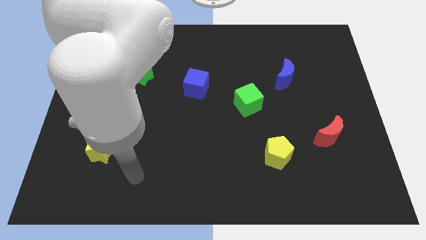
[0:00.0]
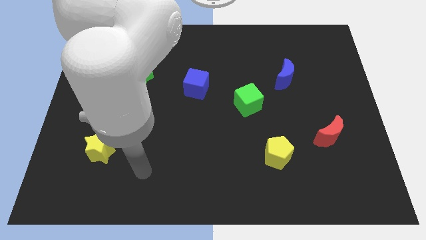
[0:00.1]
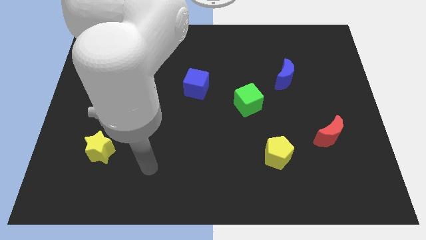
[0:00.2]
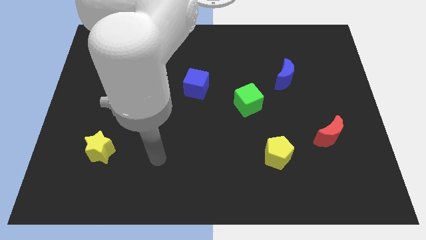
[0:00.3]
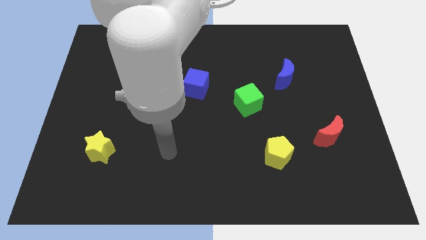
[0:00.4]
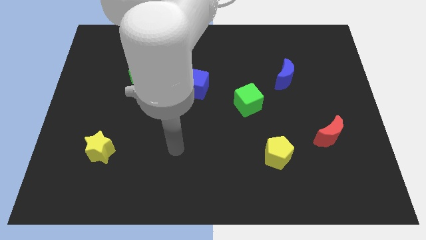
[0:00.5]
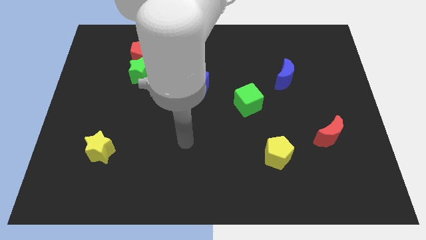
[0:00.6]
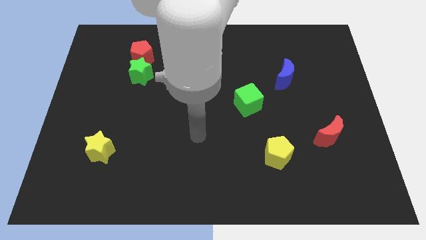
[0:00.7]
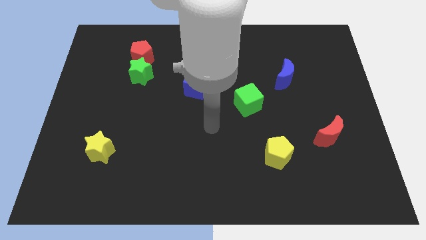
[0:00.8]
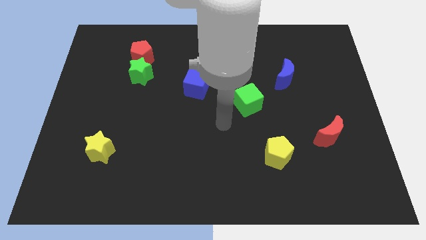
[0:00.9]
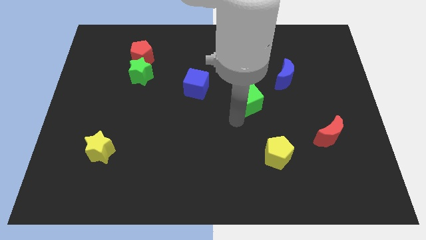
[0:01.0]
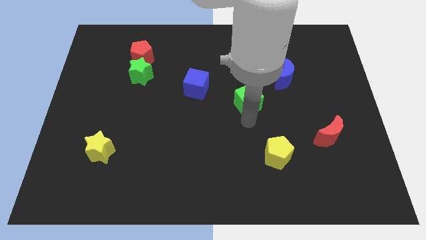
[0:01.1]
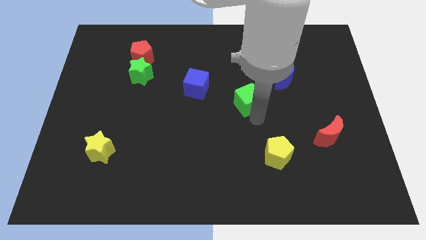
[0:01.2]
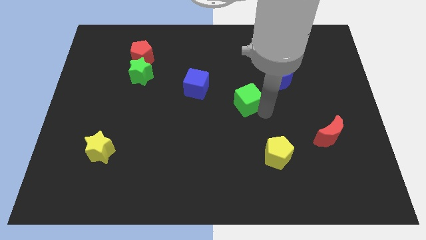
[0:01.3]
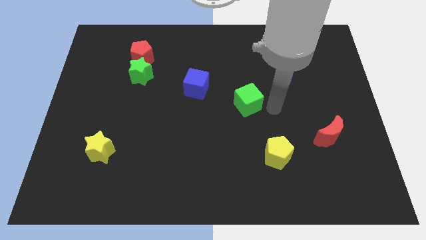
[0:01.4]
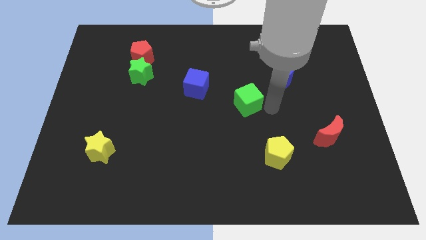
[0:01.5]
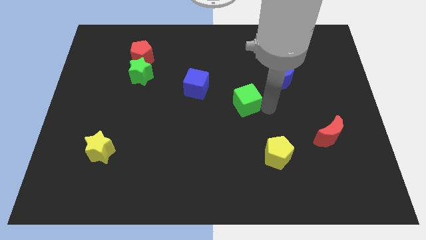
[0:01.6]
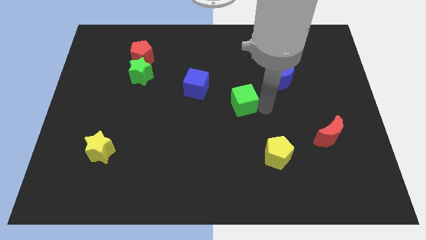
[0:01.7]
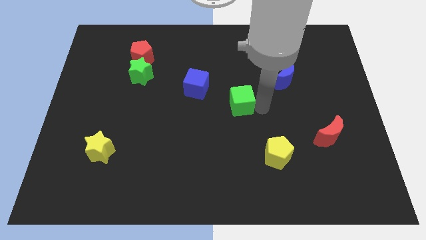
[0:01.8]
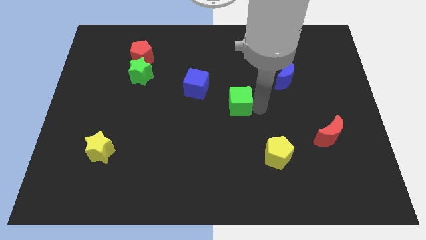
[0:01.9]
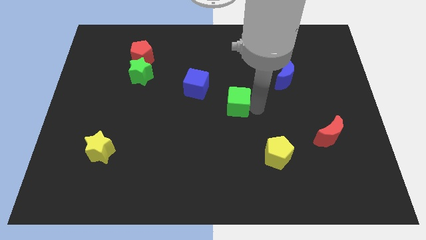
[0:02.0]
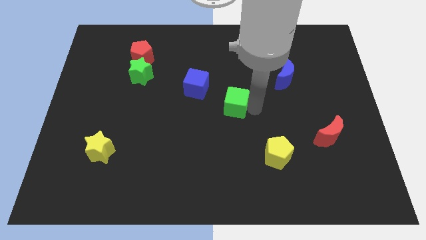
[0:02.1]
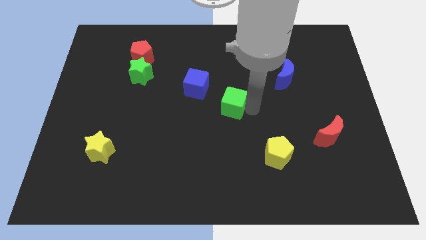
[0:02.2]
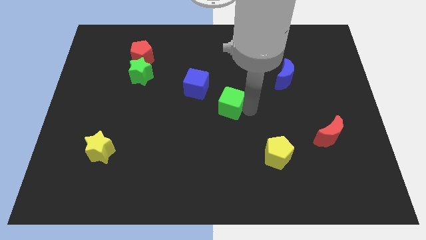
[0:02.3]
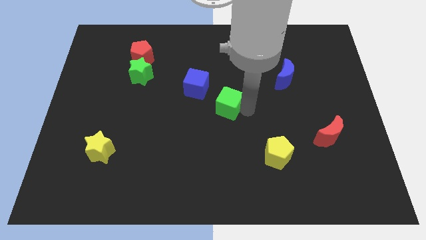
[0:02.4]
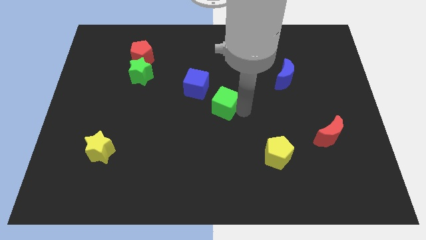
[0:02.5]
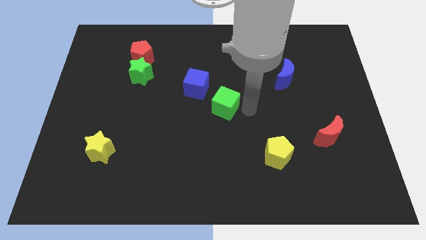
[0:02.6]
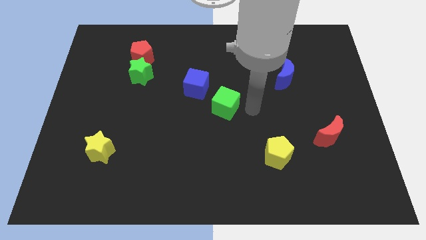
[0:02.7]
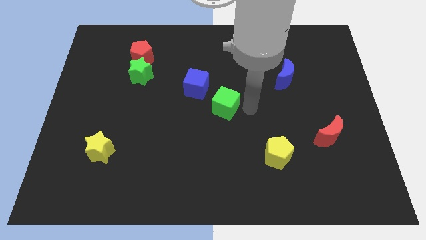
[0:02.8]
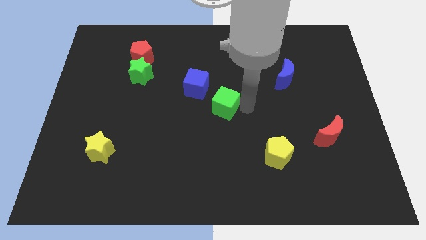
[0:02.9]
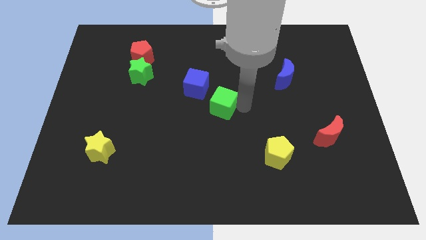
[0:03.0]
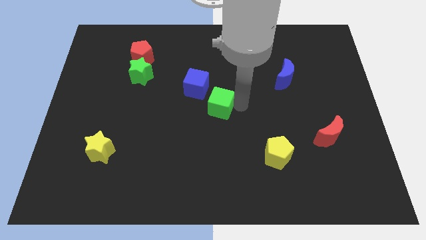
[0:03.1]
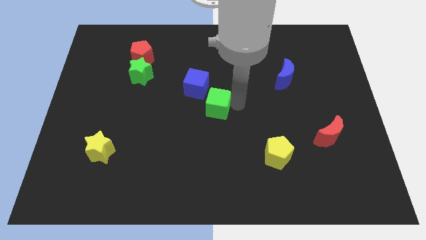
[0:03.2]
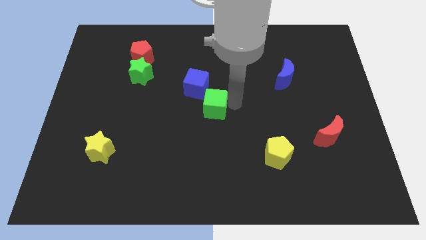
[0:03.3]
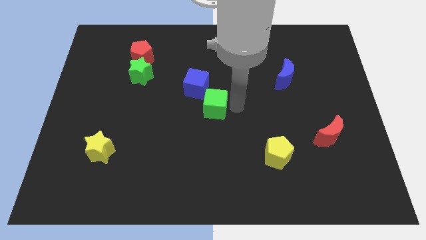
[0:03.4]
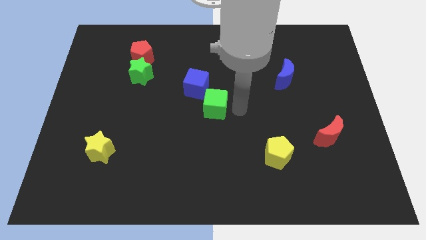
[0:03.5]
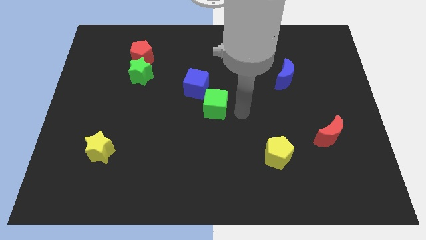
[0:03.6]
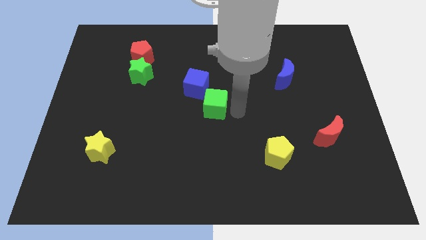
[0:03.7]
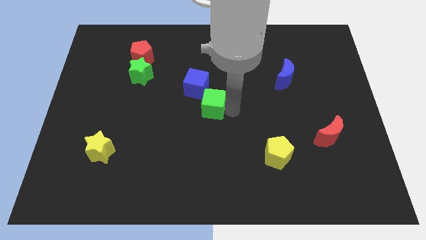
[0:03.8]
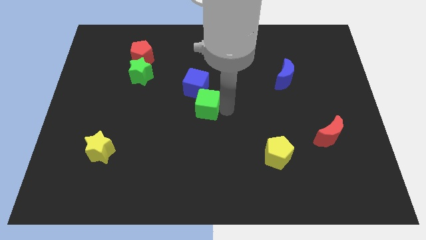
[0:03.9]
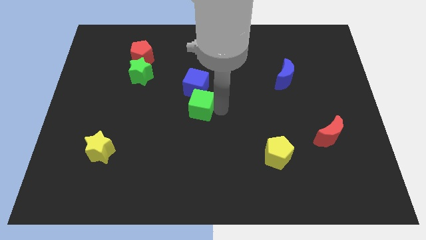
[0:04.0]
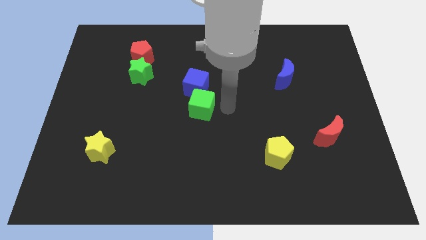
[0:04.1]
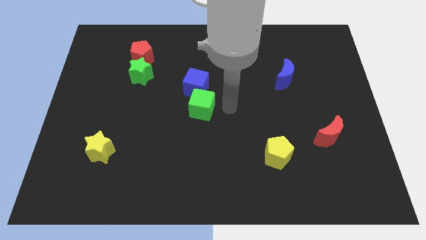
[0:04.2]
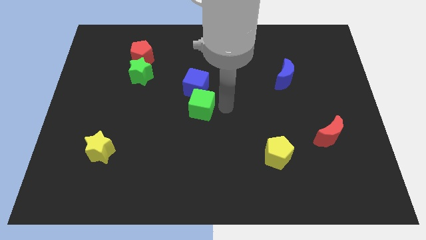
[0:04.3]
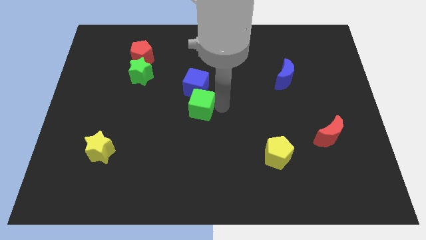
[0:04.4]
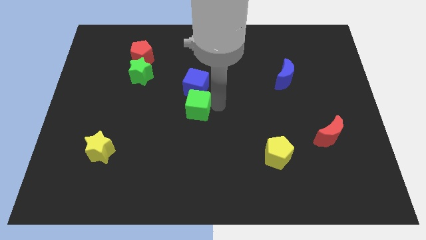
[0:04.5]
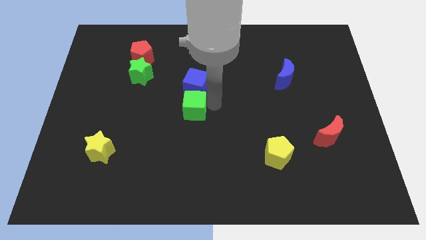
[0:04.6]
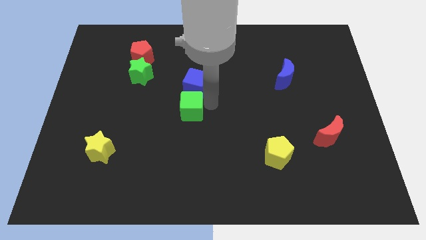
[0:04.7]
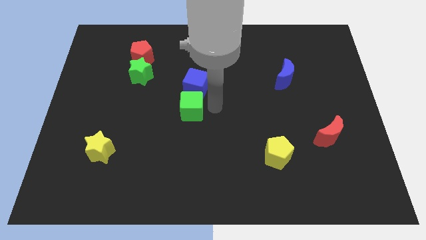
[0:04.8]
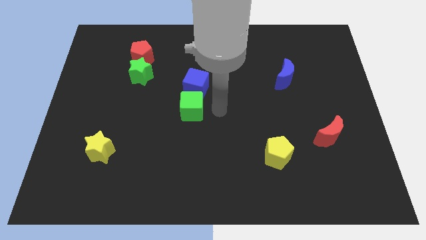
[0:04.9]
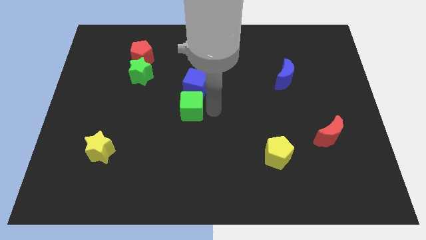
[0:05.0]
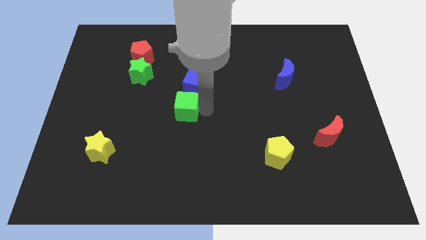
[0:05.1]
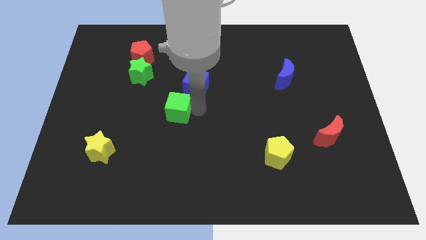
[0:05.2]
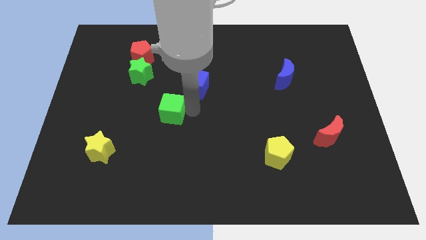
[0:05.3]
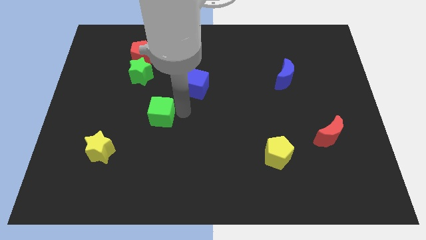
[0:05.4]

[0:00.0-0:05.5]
slide the green cube to the left

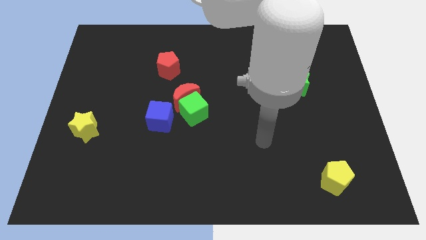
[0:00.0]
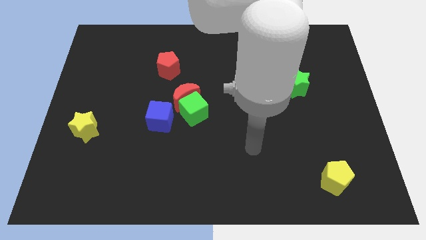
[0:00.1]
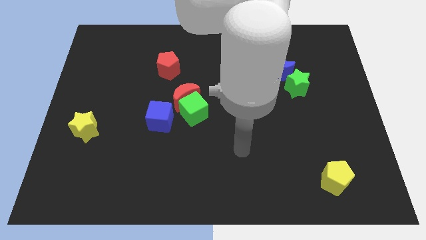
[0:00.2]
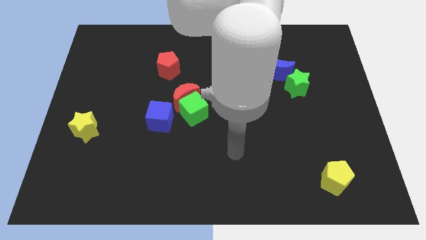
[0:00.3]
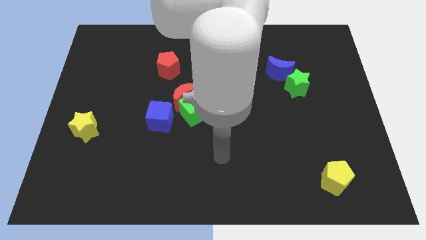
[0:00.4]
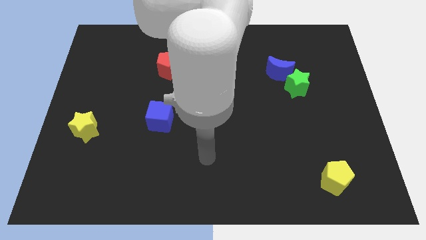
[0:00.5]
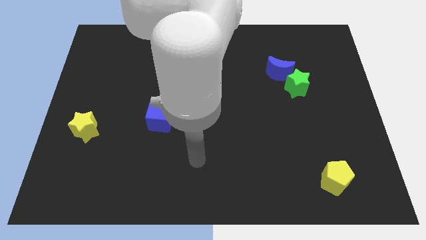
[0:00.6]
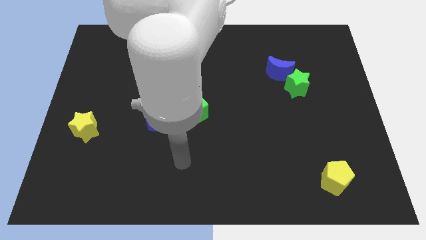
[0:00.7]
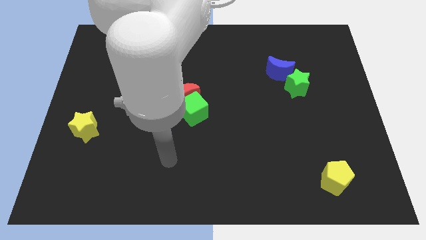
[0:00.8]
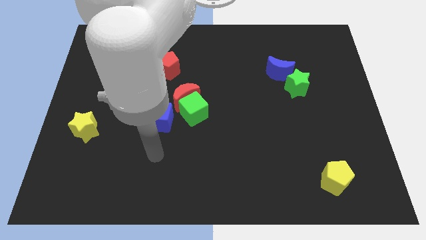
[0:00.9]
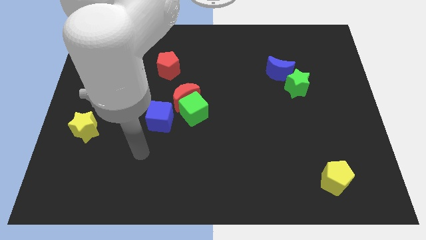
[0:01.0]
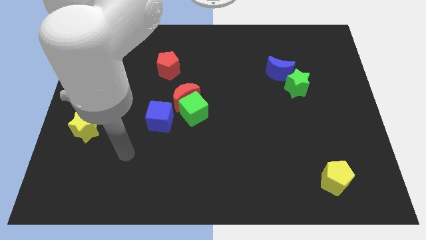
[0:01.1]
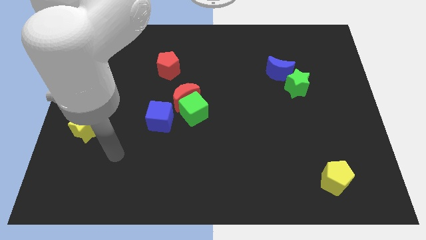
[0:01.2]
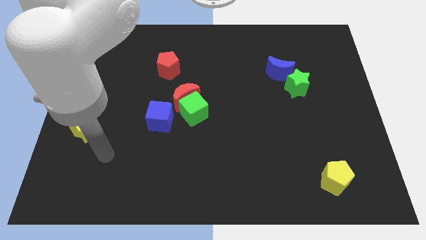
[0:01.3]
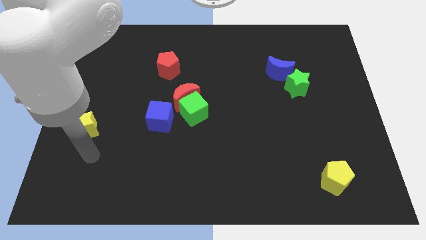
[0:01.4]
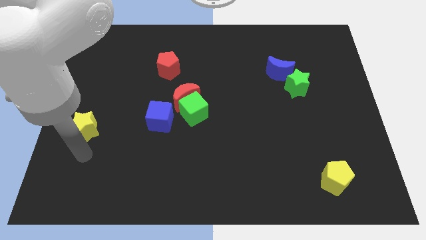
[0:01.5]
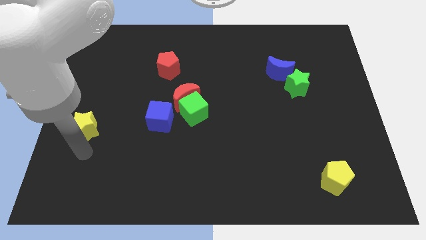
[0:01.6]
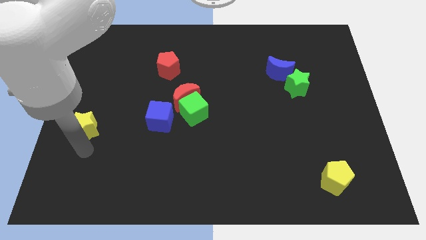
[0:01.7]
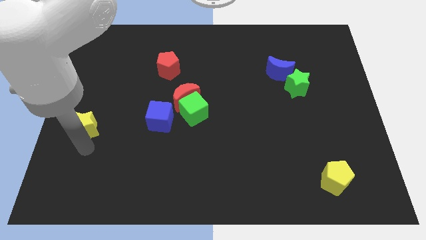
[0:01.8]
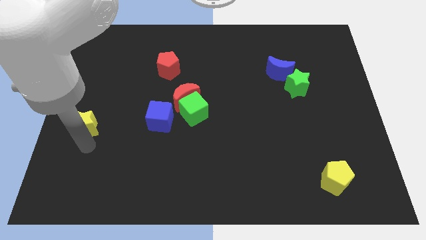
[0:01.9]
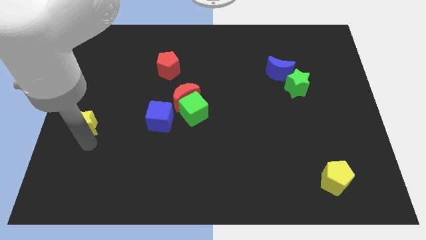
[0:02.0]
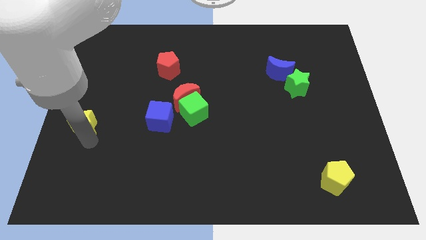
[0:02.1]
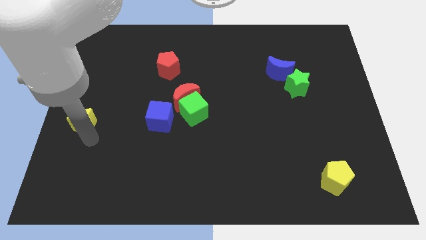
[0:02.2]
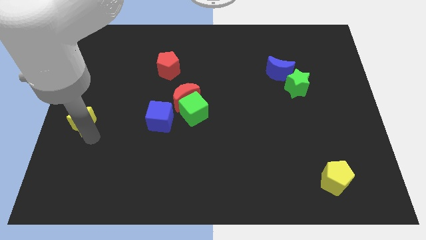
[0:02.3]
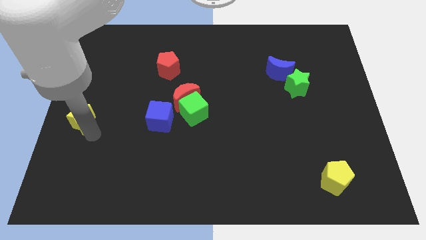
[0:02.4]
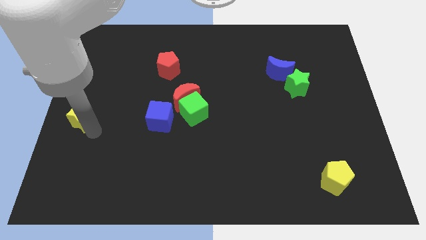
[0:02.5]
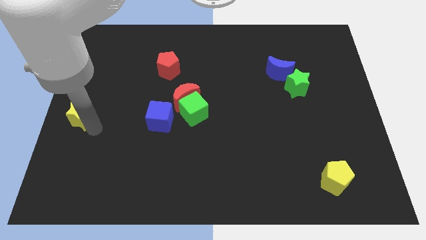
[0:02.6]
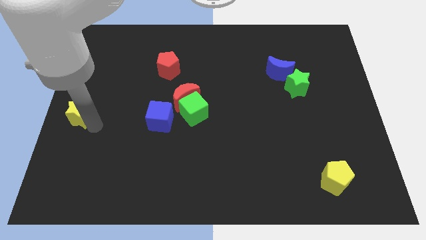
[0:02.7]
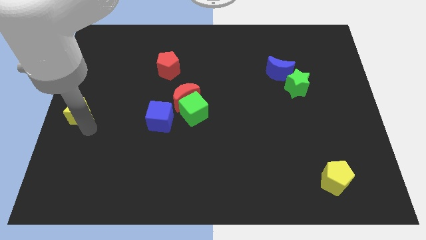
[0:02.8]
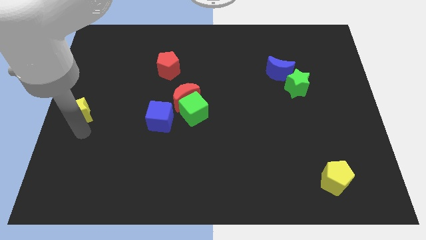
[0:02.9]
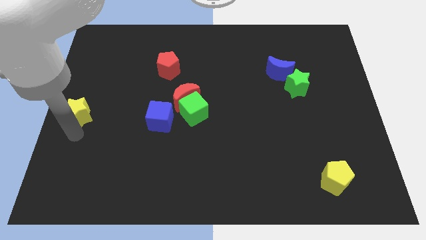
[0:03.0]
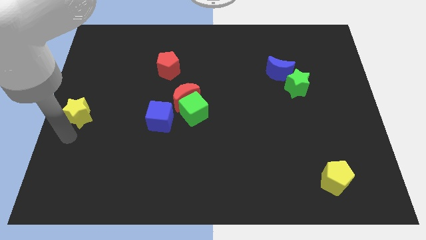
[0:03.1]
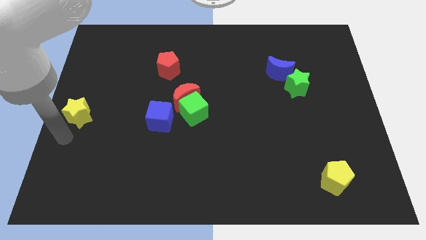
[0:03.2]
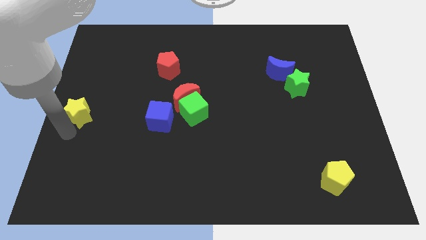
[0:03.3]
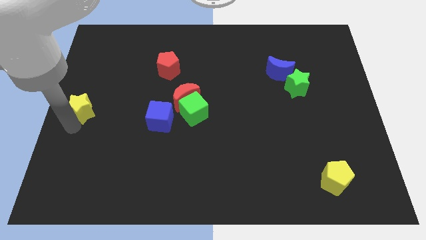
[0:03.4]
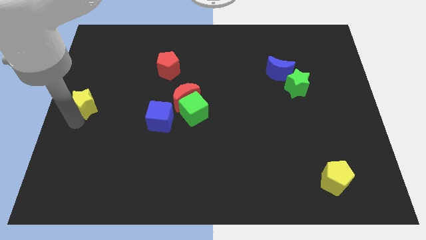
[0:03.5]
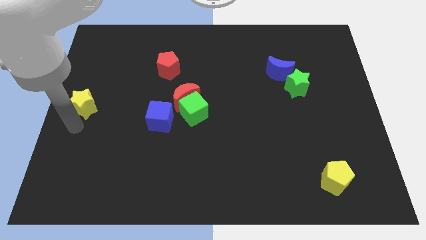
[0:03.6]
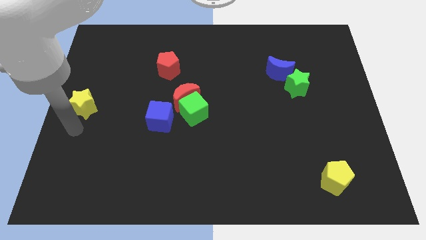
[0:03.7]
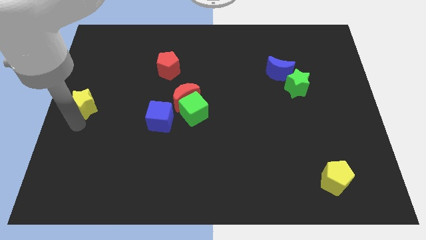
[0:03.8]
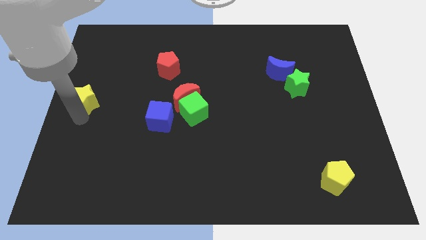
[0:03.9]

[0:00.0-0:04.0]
push the yellow star upwards slightly
